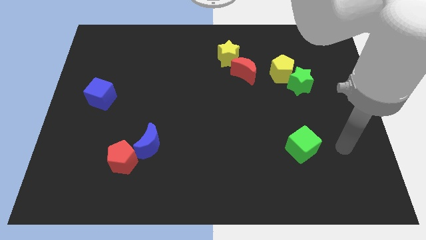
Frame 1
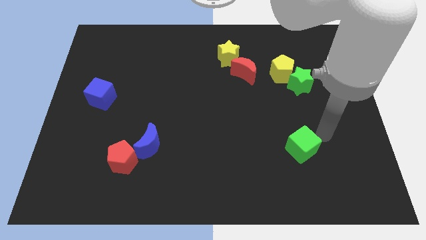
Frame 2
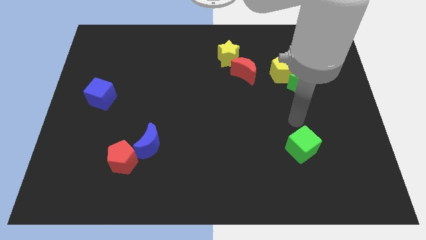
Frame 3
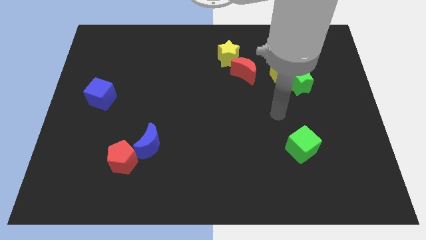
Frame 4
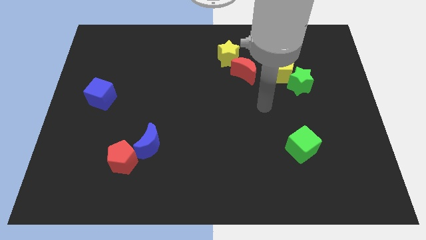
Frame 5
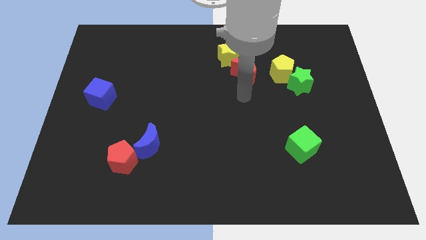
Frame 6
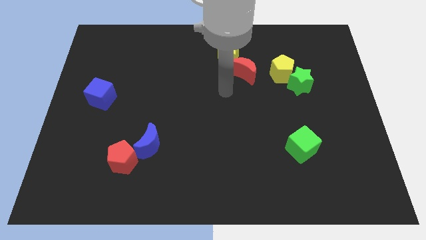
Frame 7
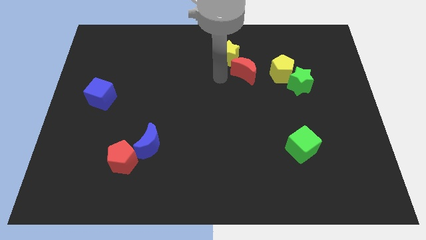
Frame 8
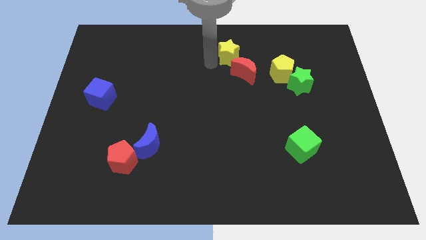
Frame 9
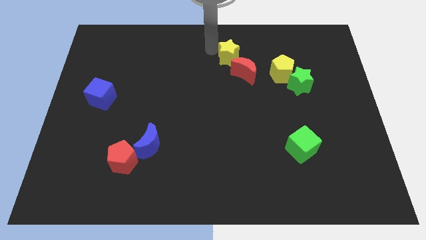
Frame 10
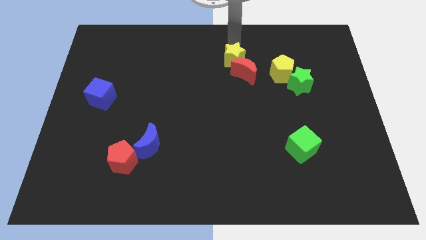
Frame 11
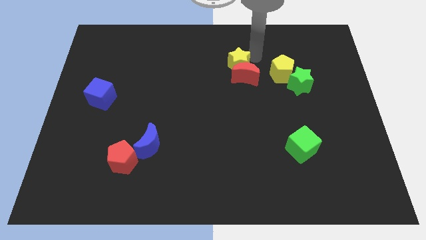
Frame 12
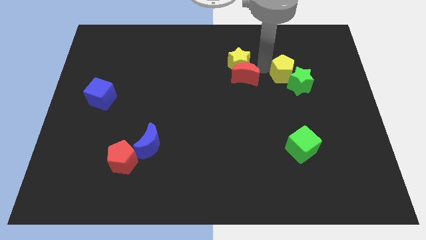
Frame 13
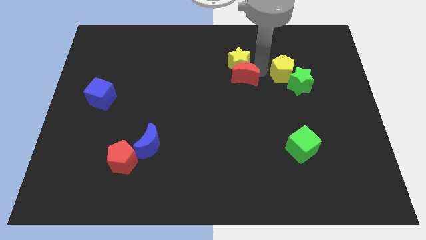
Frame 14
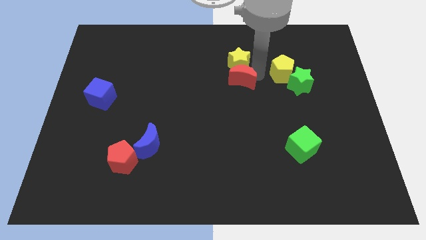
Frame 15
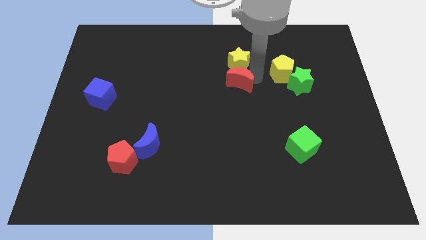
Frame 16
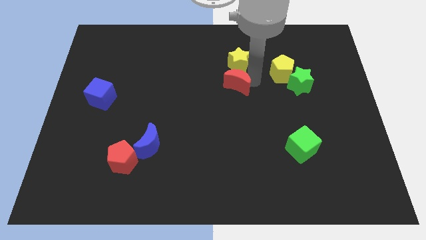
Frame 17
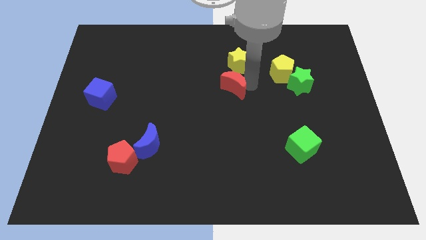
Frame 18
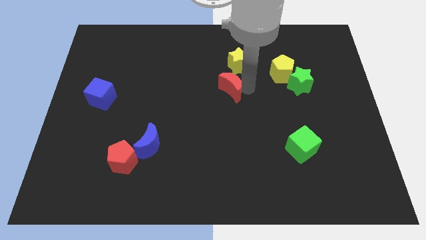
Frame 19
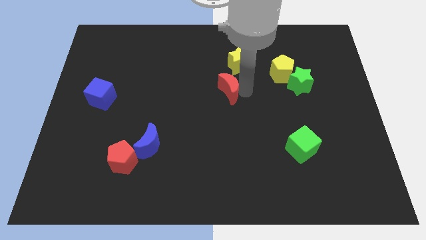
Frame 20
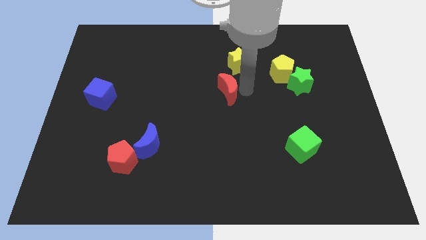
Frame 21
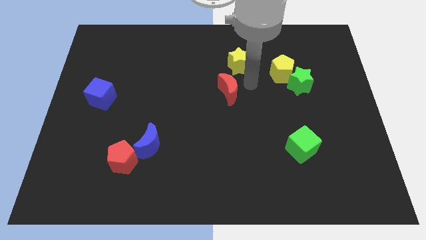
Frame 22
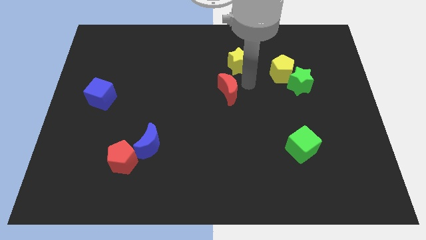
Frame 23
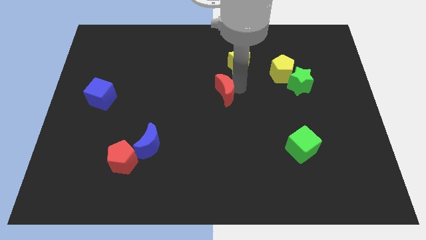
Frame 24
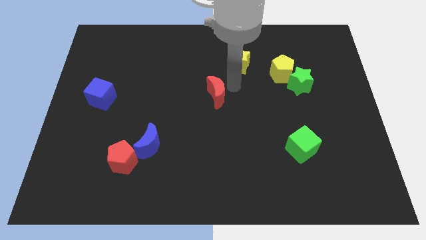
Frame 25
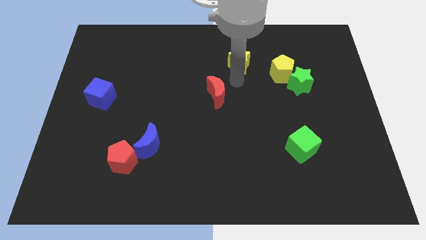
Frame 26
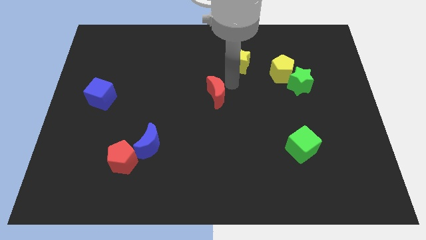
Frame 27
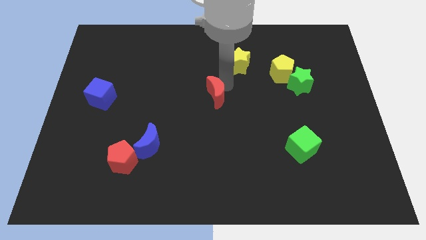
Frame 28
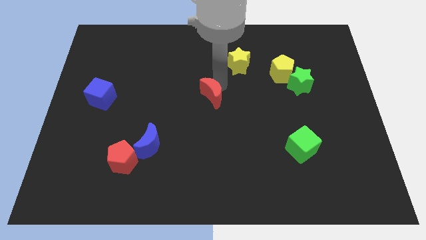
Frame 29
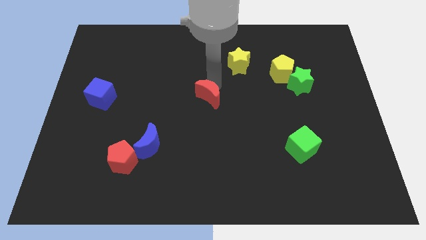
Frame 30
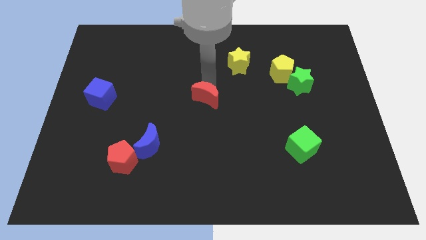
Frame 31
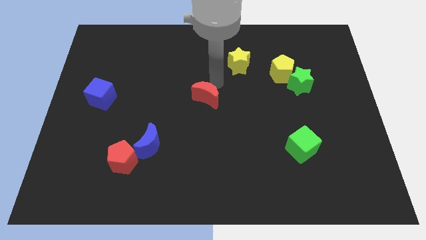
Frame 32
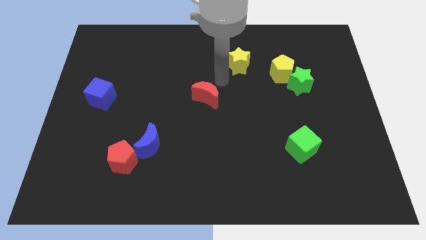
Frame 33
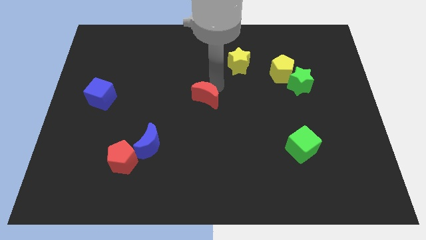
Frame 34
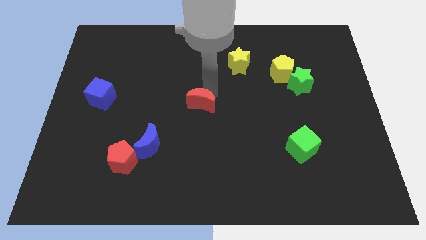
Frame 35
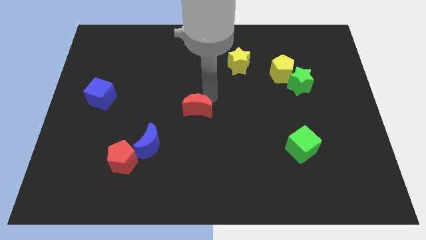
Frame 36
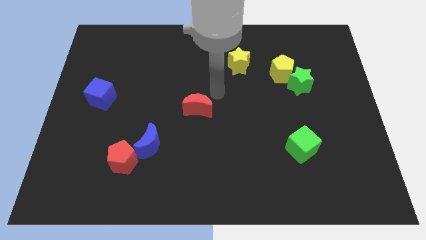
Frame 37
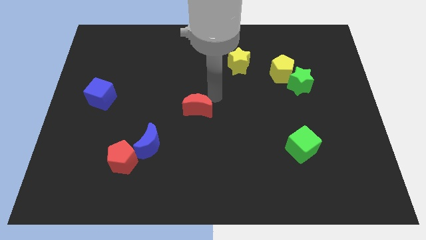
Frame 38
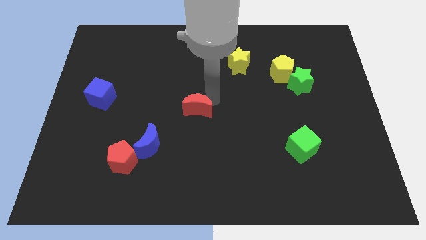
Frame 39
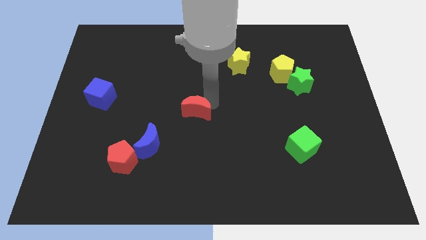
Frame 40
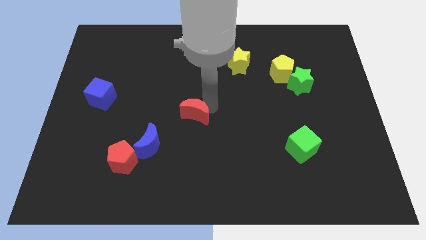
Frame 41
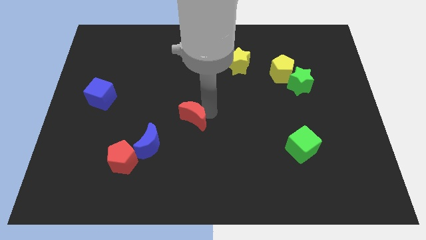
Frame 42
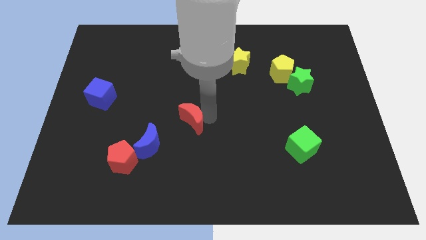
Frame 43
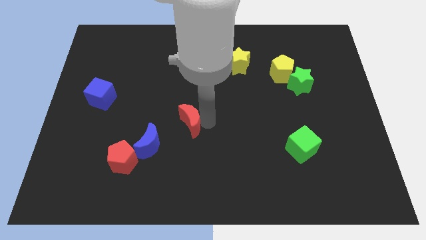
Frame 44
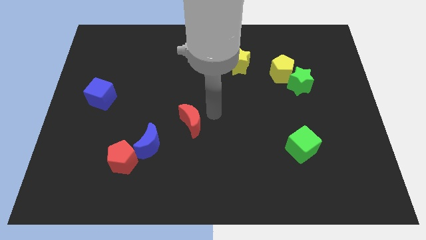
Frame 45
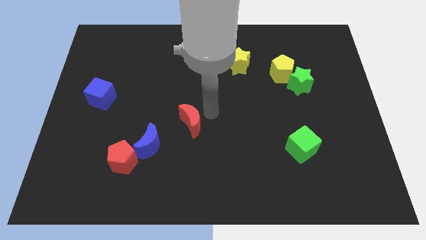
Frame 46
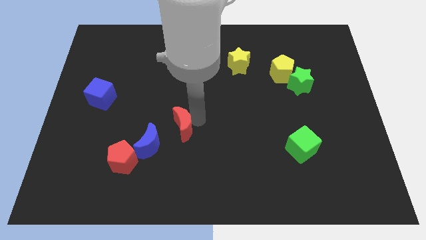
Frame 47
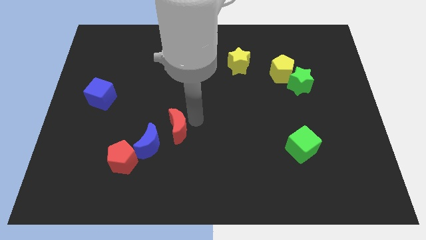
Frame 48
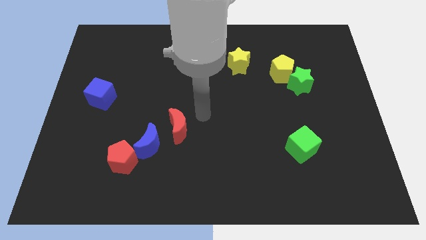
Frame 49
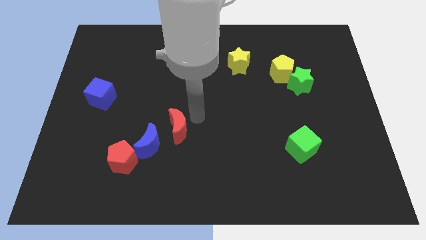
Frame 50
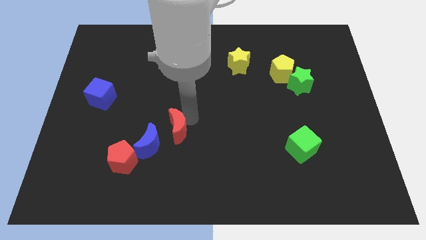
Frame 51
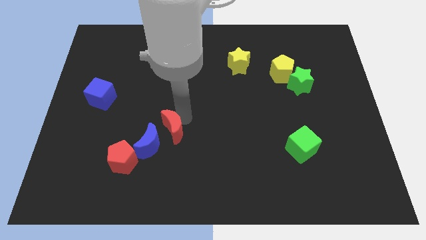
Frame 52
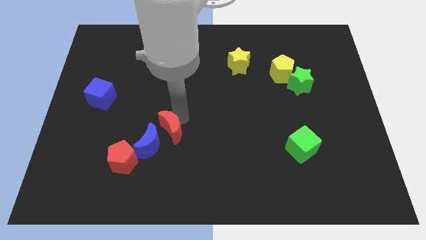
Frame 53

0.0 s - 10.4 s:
slide the red moon next to the blue moon

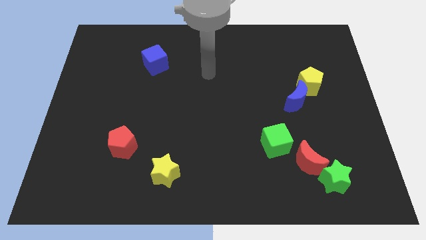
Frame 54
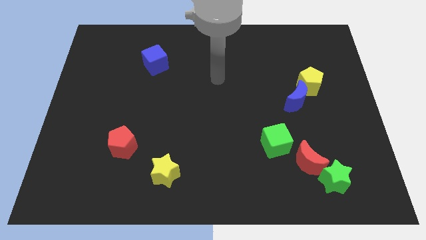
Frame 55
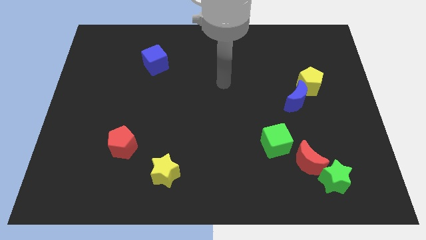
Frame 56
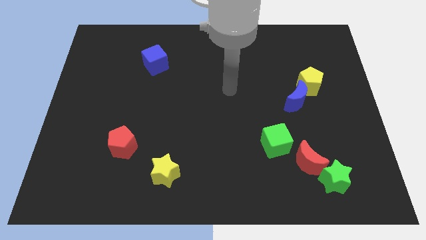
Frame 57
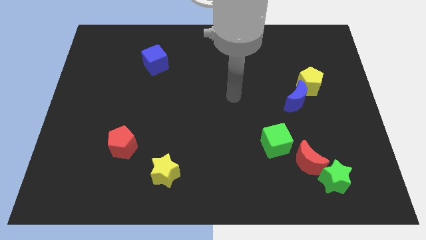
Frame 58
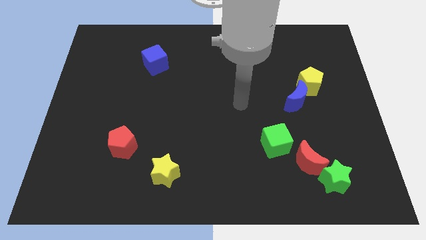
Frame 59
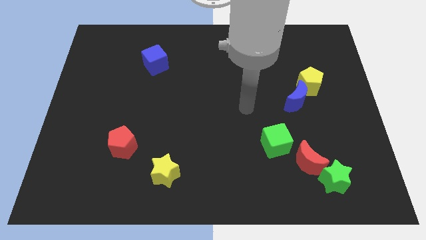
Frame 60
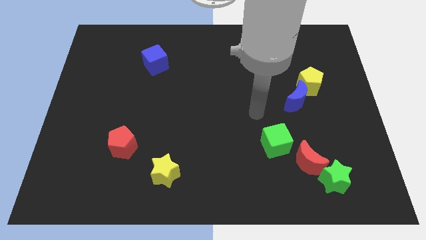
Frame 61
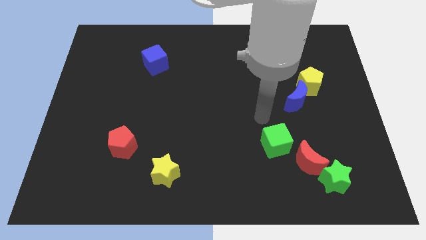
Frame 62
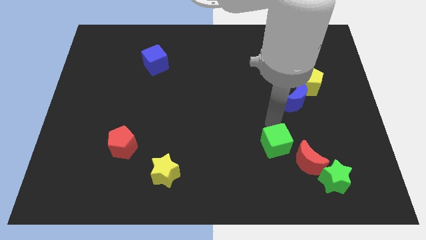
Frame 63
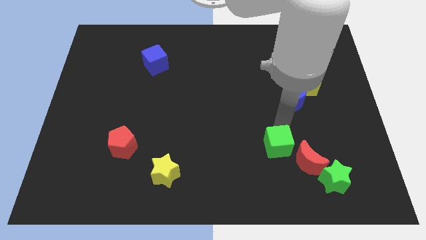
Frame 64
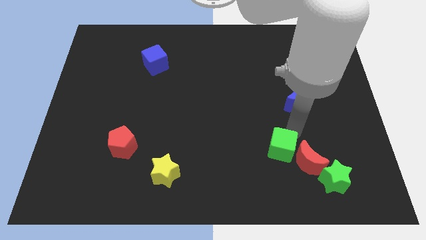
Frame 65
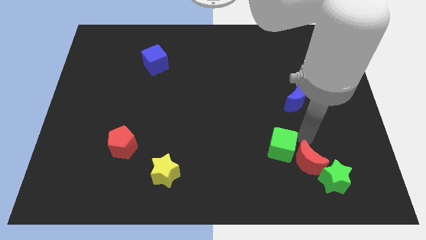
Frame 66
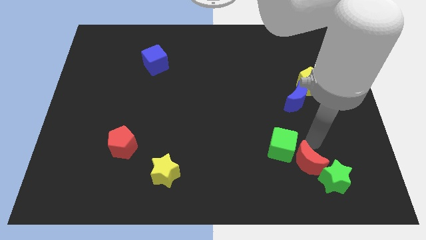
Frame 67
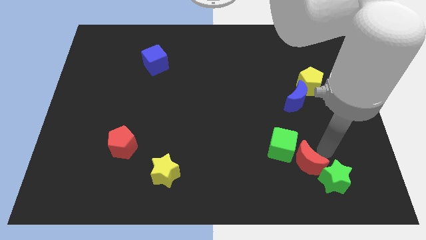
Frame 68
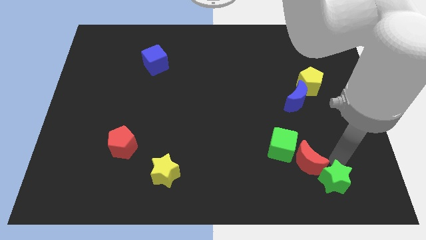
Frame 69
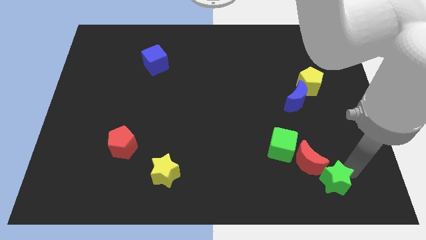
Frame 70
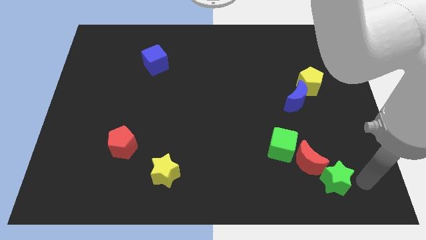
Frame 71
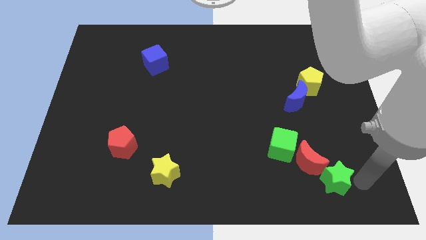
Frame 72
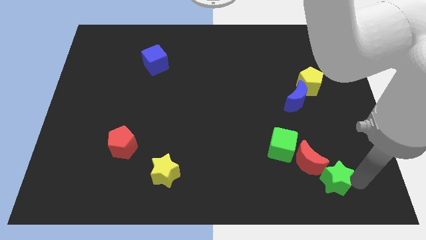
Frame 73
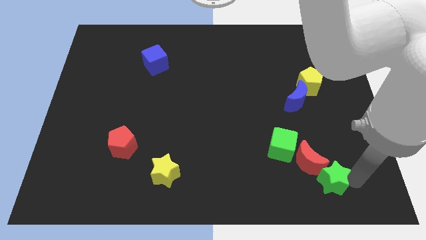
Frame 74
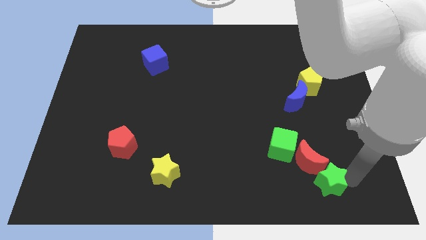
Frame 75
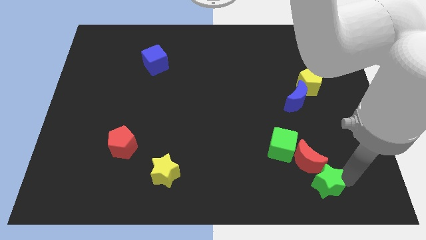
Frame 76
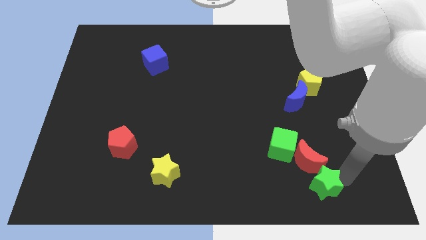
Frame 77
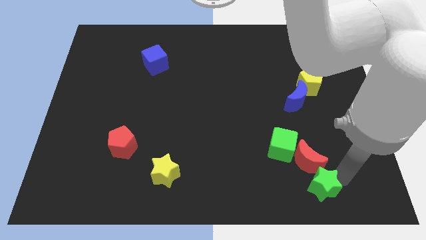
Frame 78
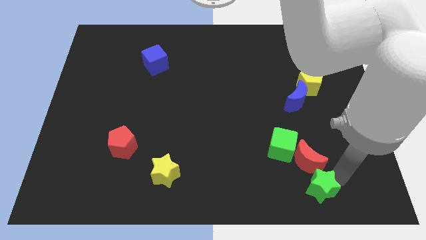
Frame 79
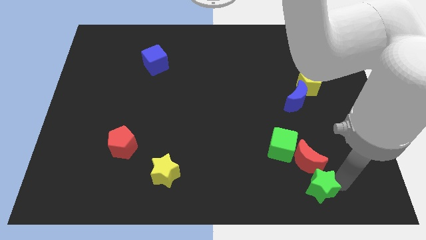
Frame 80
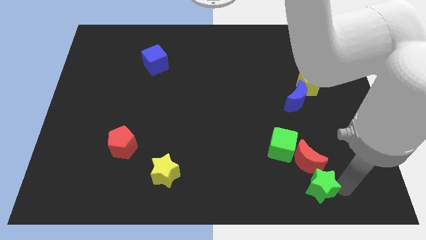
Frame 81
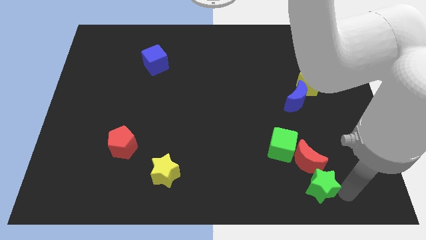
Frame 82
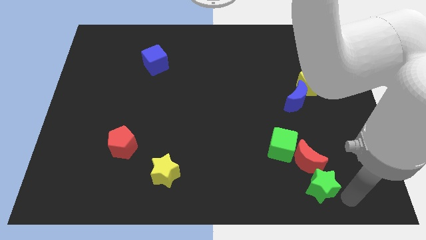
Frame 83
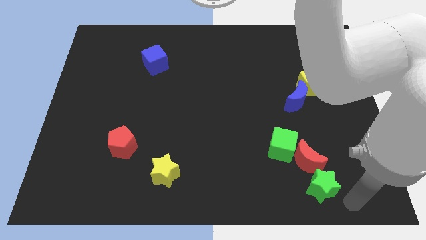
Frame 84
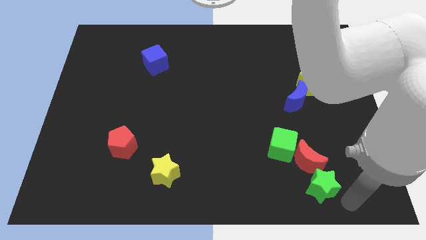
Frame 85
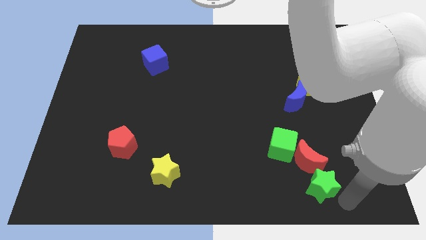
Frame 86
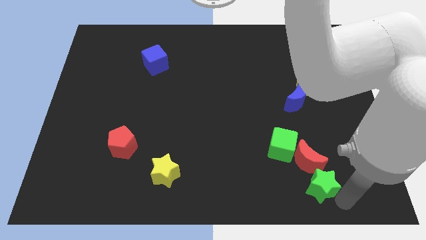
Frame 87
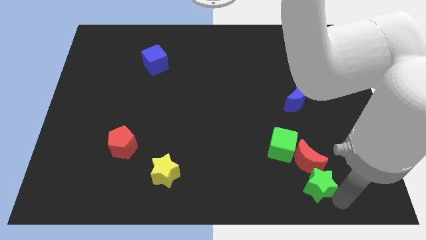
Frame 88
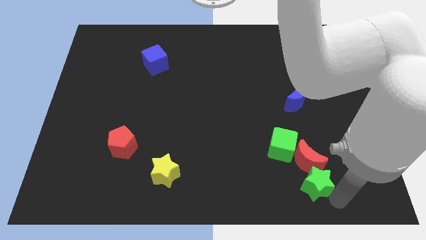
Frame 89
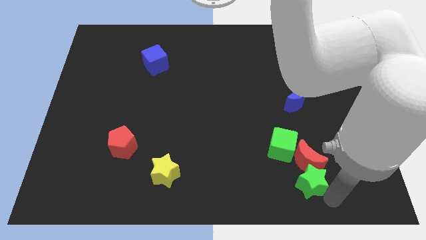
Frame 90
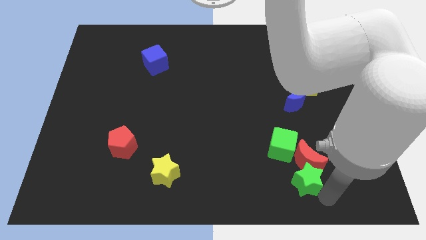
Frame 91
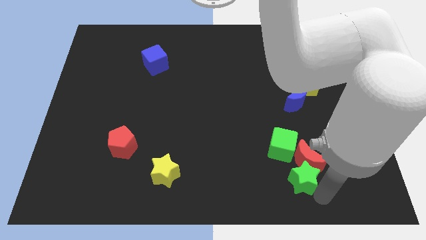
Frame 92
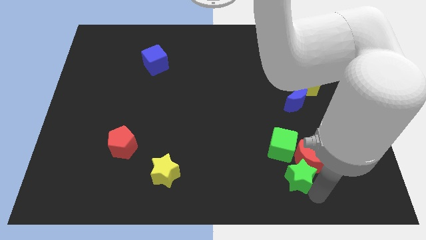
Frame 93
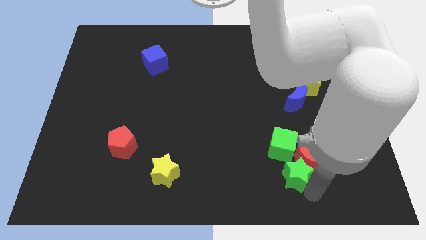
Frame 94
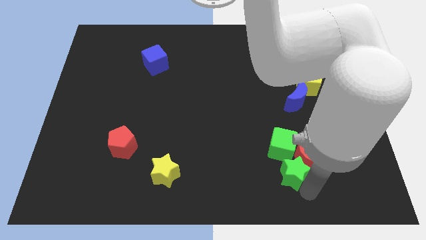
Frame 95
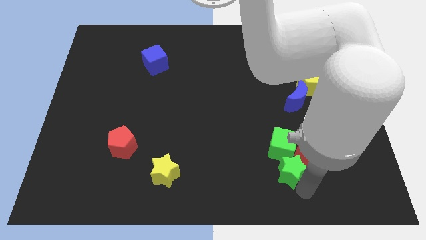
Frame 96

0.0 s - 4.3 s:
slide the green star next to the green cube
